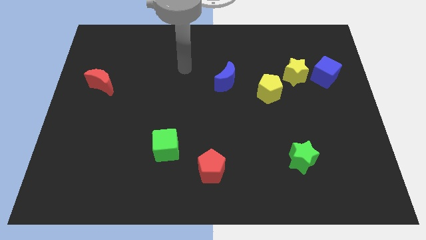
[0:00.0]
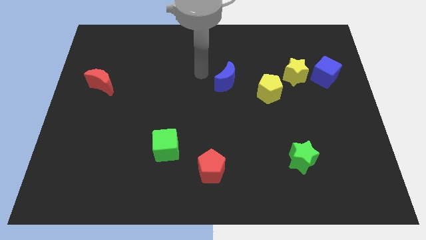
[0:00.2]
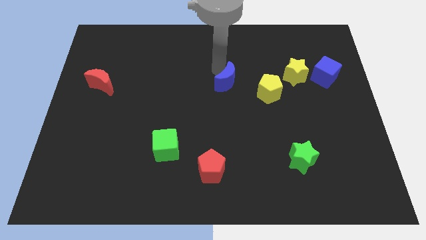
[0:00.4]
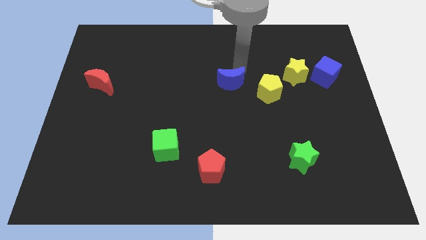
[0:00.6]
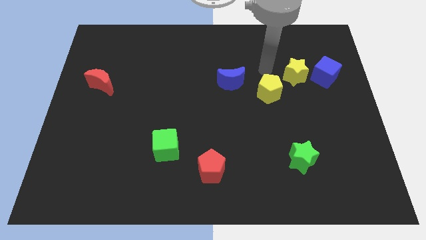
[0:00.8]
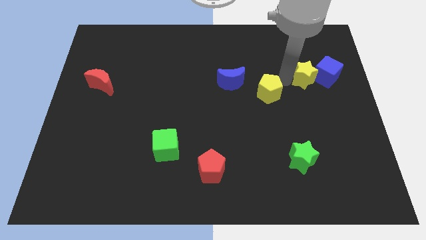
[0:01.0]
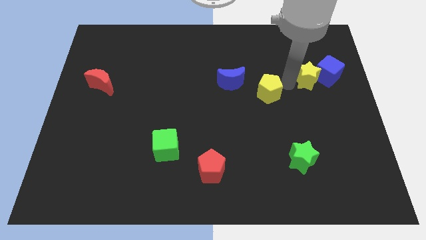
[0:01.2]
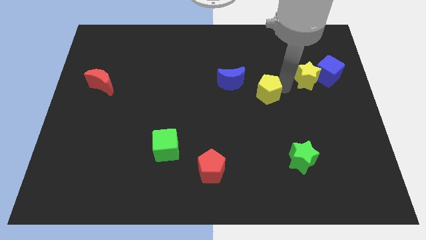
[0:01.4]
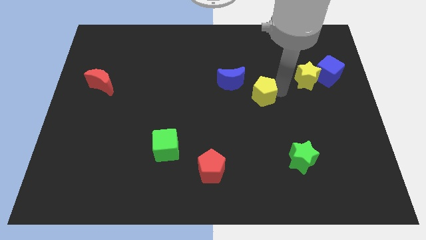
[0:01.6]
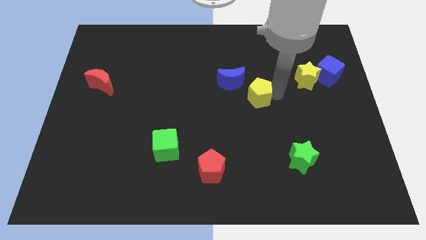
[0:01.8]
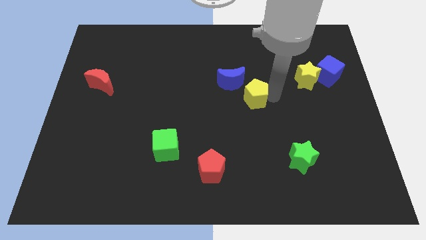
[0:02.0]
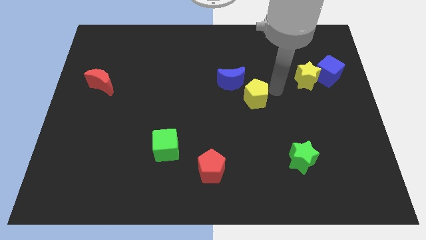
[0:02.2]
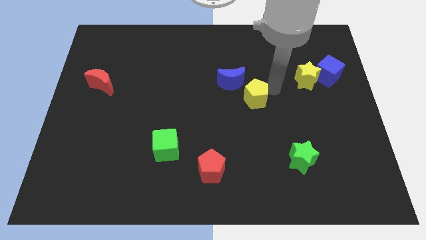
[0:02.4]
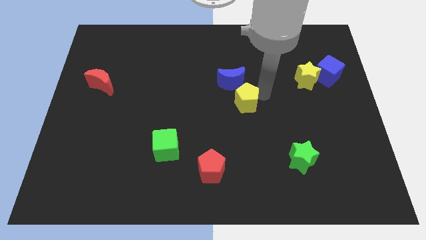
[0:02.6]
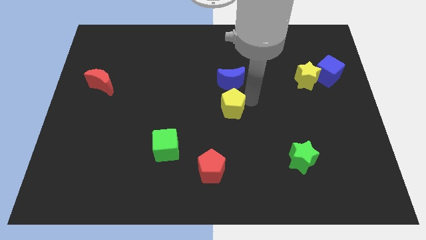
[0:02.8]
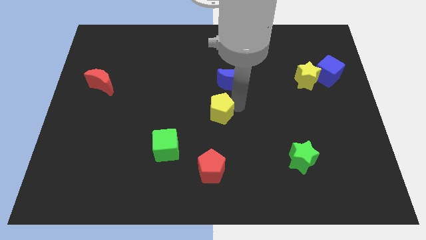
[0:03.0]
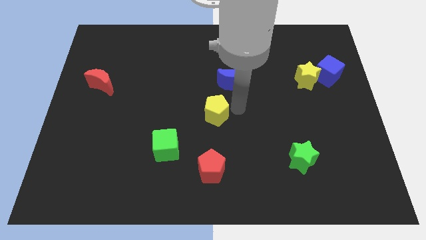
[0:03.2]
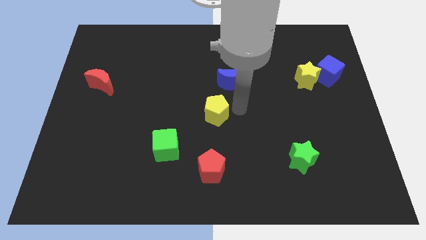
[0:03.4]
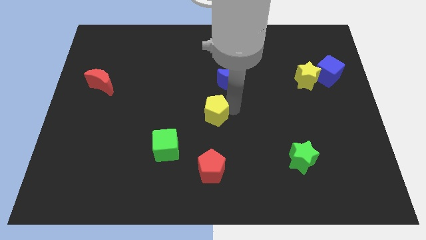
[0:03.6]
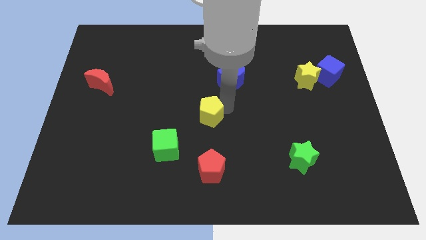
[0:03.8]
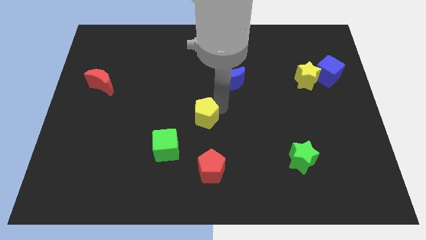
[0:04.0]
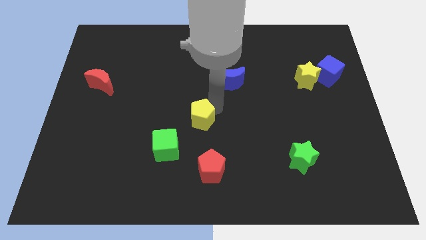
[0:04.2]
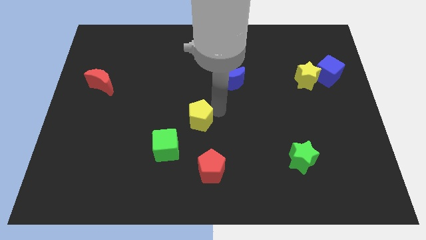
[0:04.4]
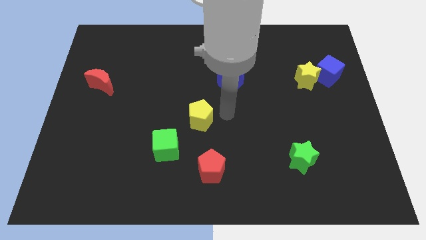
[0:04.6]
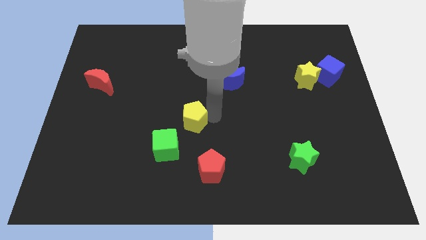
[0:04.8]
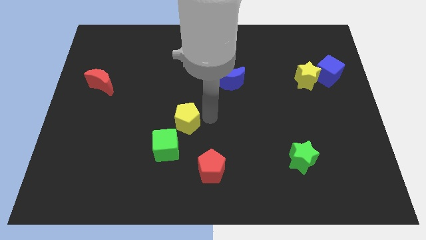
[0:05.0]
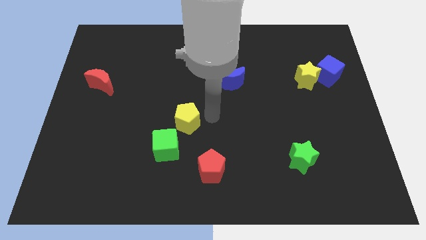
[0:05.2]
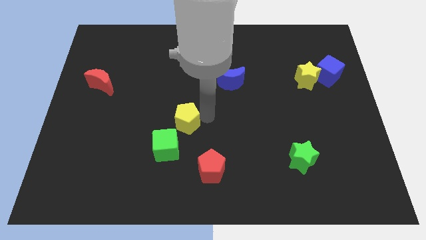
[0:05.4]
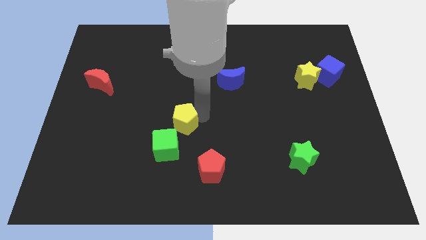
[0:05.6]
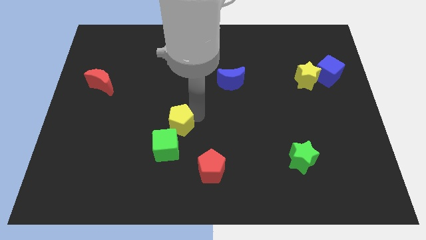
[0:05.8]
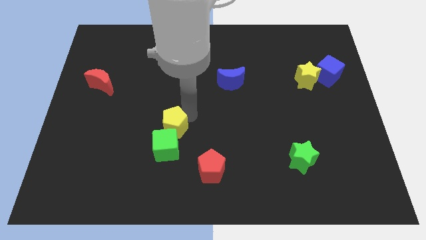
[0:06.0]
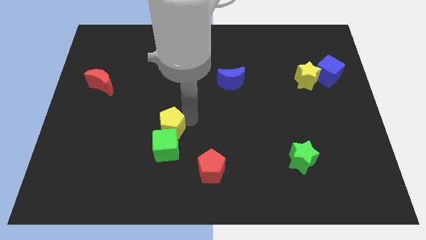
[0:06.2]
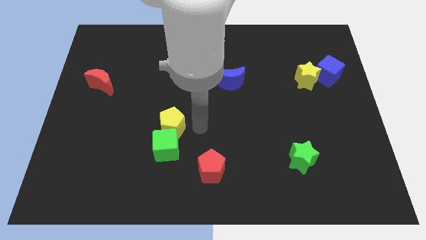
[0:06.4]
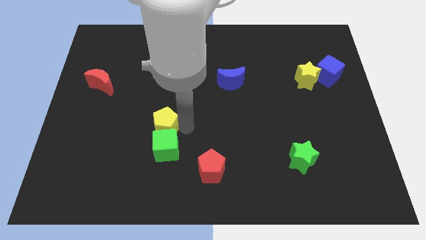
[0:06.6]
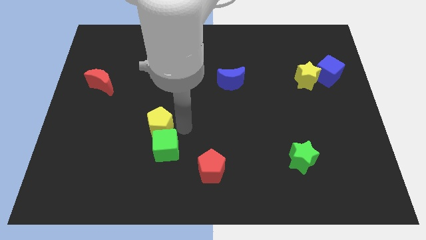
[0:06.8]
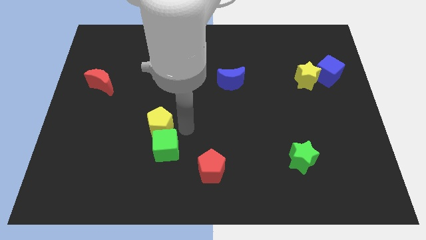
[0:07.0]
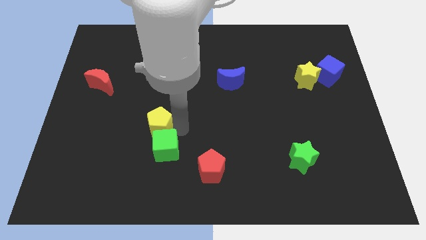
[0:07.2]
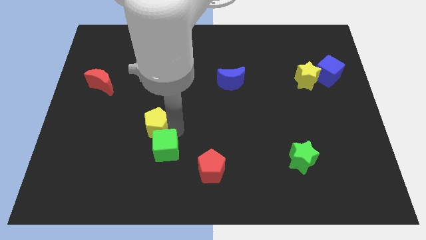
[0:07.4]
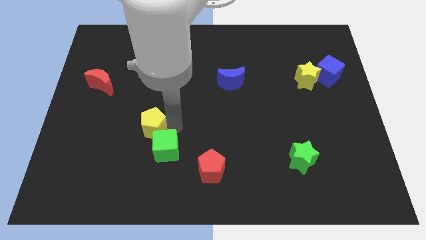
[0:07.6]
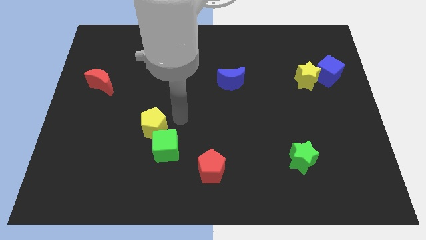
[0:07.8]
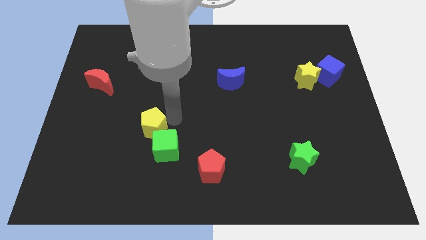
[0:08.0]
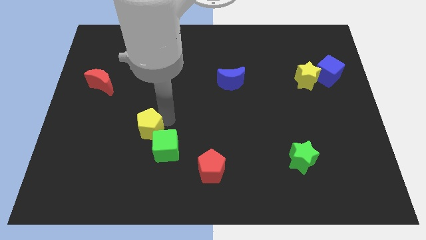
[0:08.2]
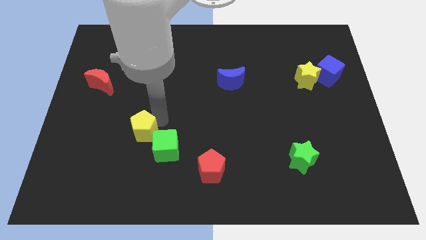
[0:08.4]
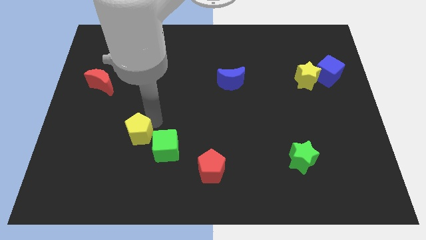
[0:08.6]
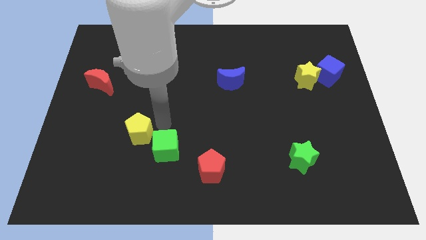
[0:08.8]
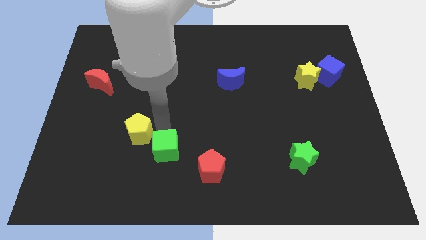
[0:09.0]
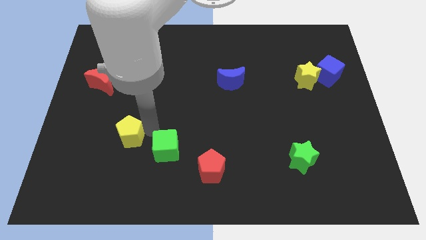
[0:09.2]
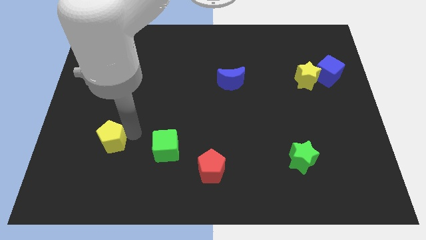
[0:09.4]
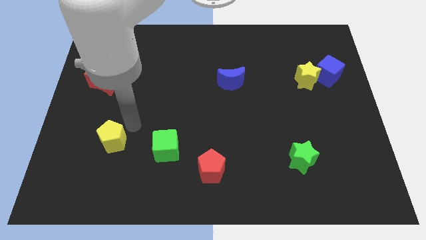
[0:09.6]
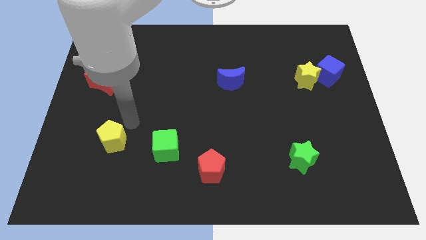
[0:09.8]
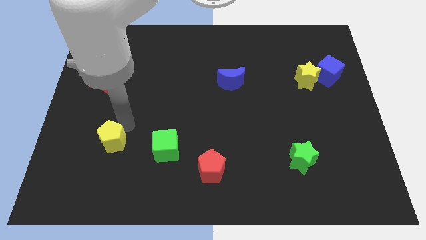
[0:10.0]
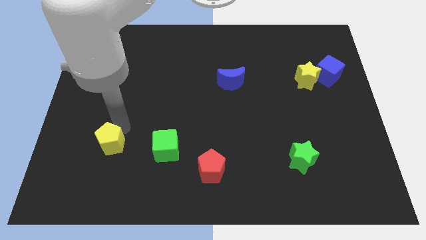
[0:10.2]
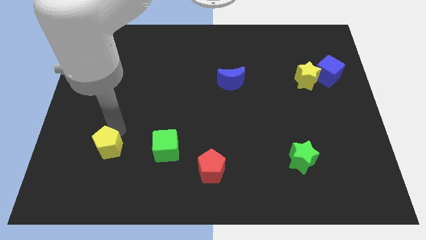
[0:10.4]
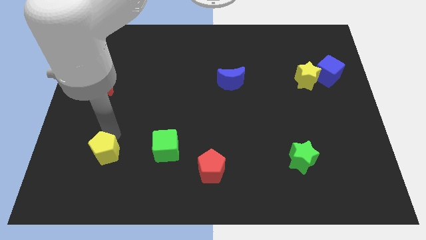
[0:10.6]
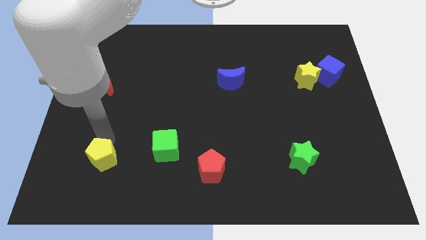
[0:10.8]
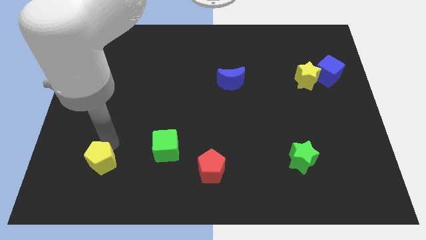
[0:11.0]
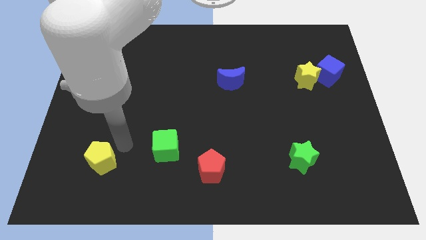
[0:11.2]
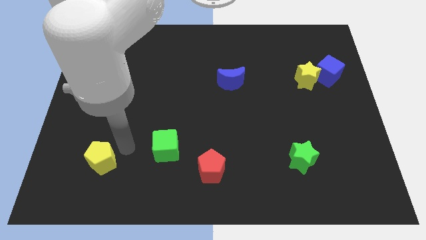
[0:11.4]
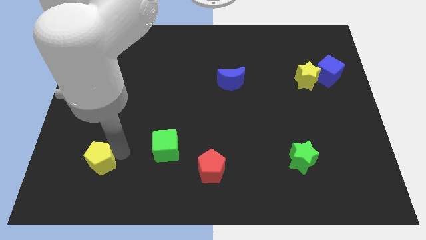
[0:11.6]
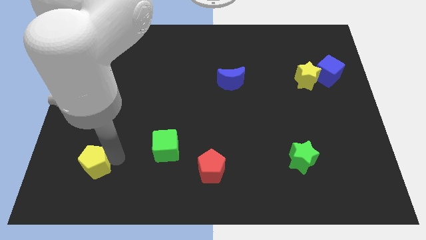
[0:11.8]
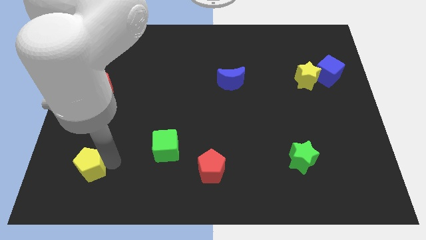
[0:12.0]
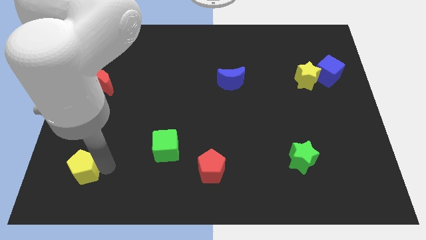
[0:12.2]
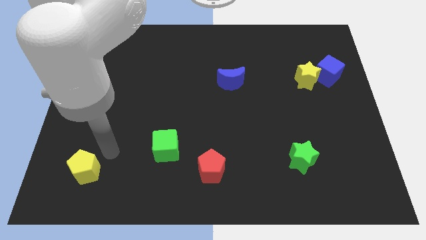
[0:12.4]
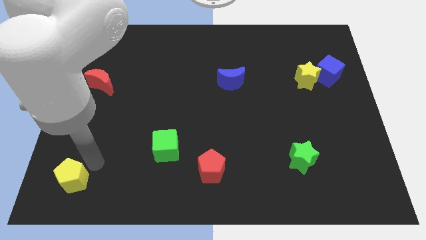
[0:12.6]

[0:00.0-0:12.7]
put the yellow pentagon to the bottom left of the board

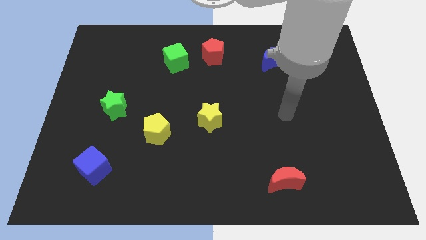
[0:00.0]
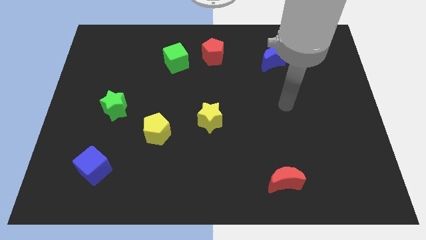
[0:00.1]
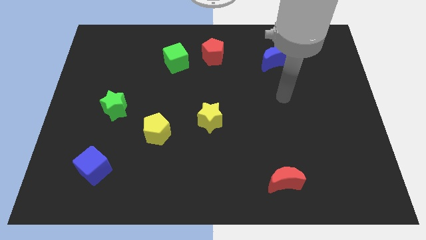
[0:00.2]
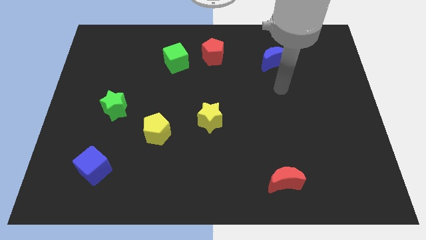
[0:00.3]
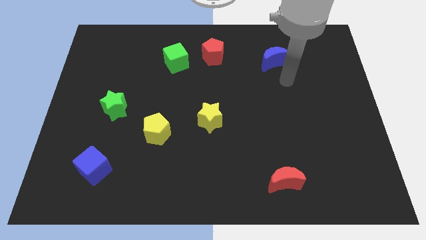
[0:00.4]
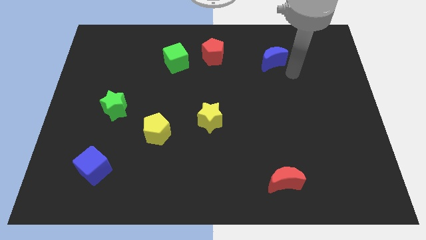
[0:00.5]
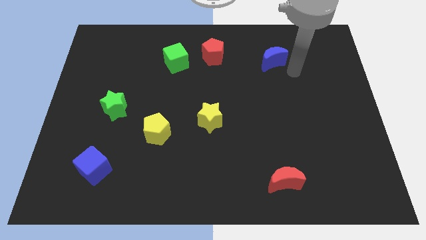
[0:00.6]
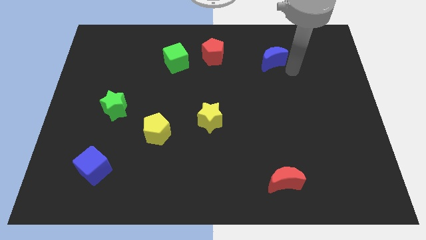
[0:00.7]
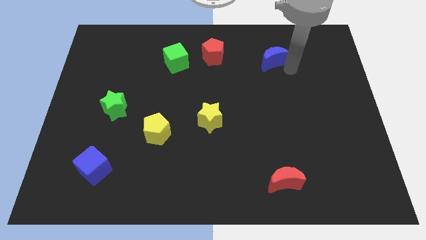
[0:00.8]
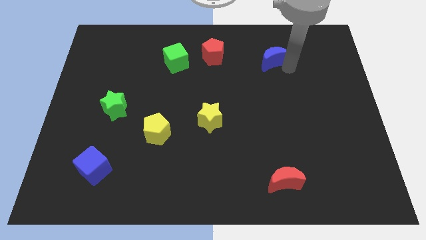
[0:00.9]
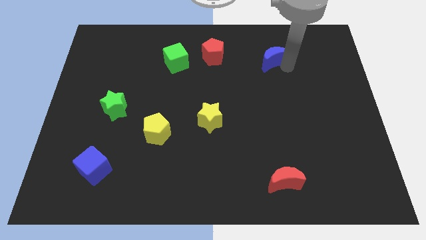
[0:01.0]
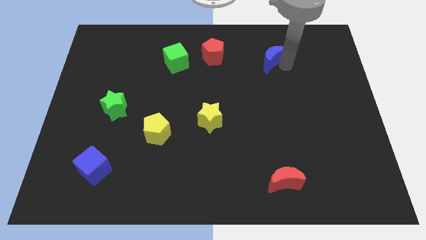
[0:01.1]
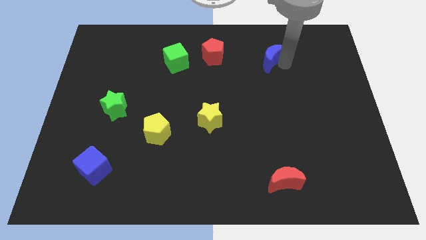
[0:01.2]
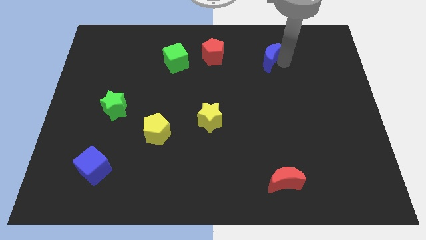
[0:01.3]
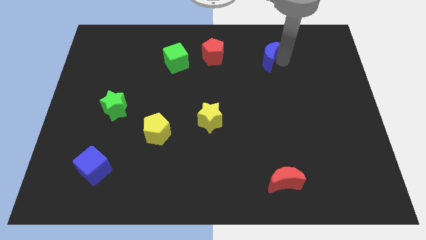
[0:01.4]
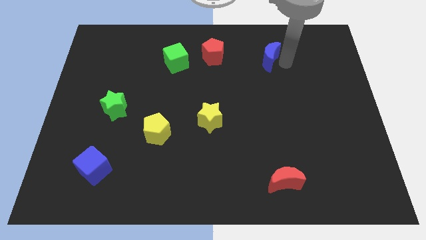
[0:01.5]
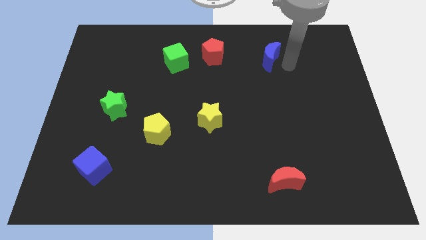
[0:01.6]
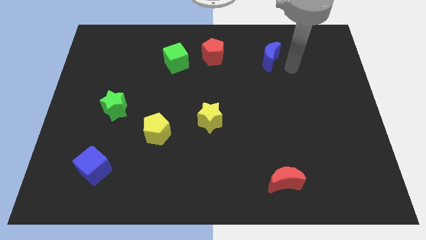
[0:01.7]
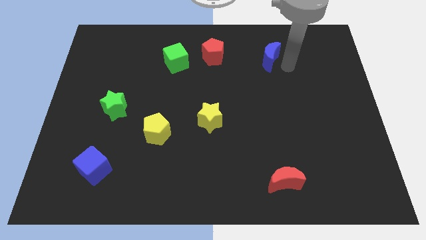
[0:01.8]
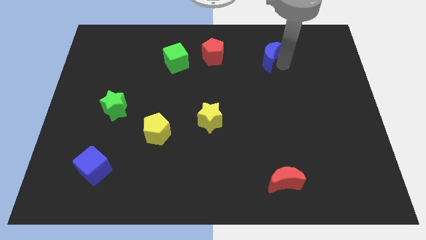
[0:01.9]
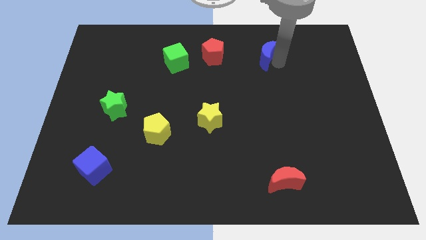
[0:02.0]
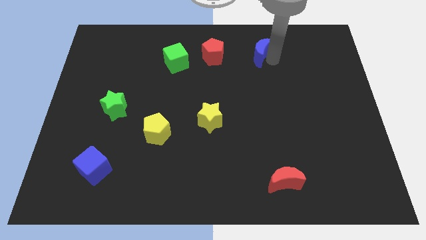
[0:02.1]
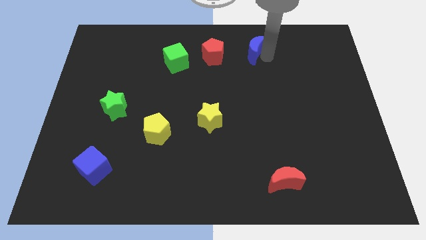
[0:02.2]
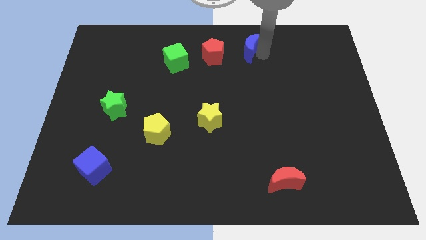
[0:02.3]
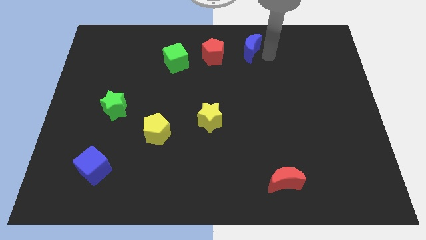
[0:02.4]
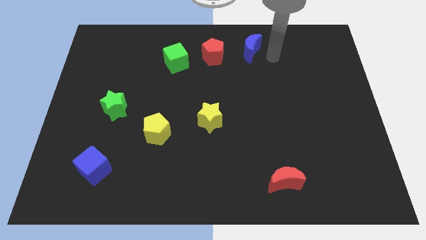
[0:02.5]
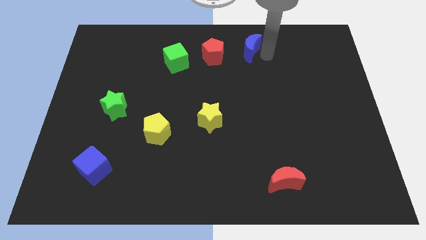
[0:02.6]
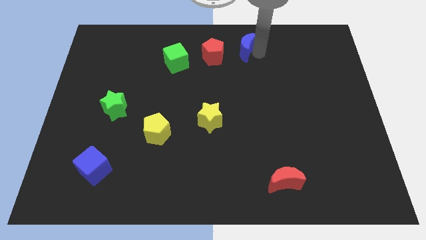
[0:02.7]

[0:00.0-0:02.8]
move the blue moon to the top
